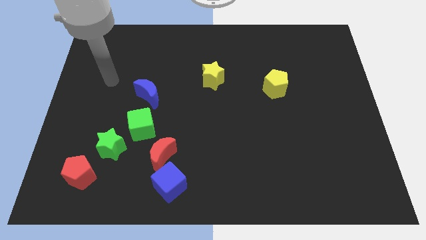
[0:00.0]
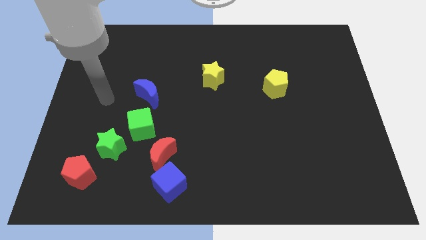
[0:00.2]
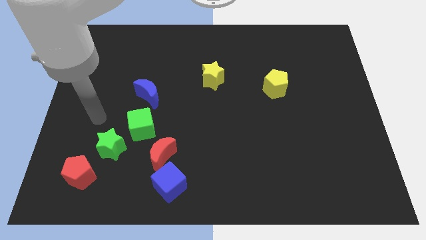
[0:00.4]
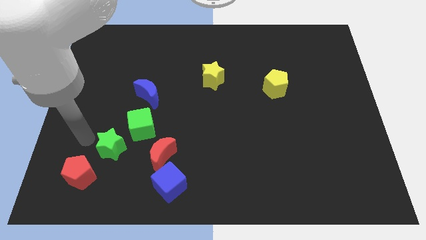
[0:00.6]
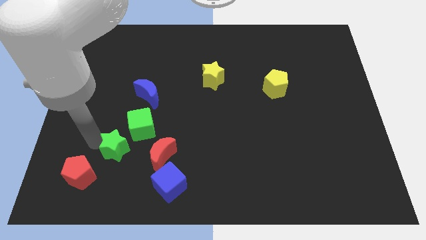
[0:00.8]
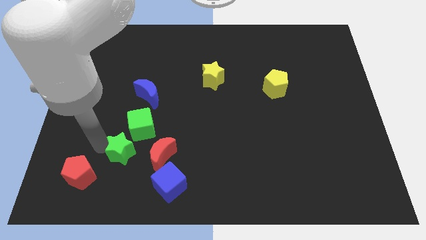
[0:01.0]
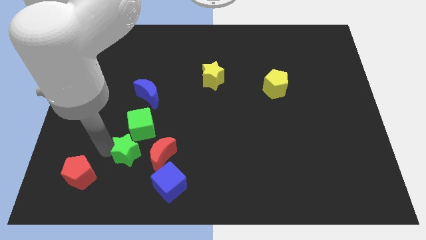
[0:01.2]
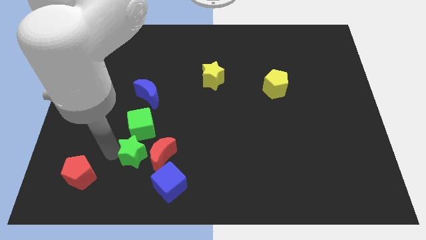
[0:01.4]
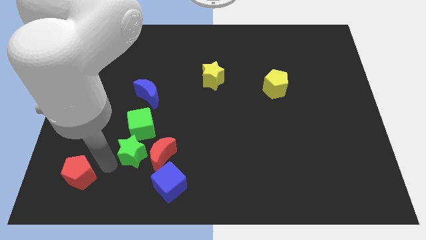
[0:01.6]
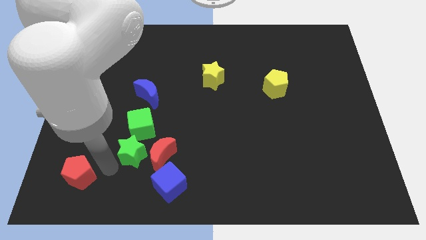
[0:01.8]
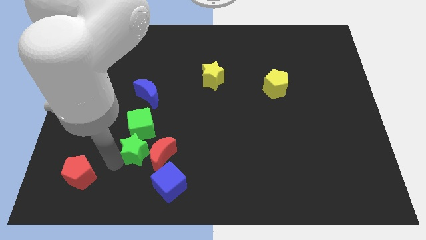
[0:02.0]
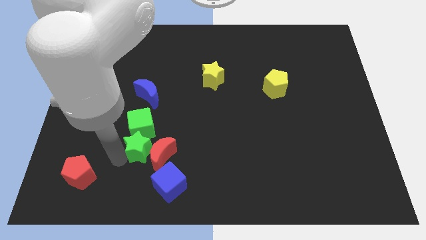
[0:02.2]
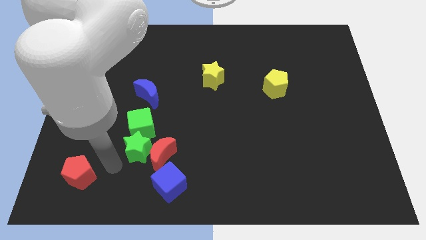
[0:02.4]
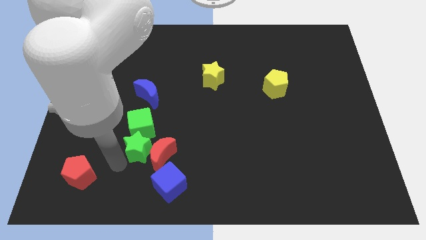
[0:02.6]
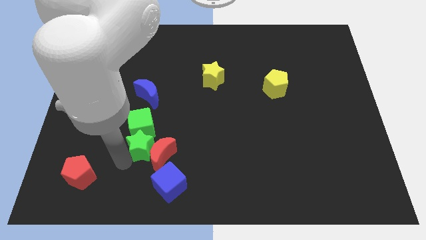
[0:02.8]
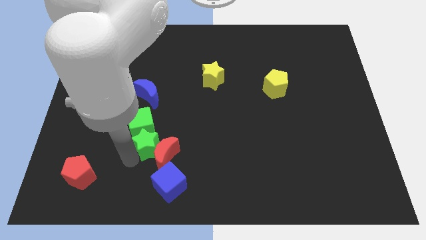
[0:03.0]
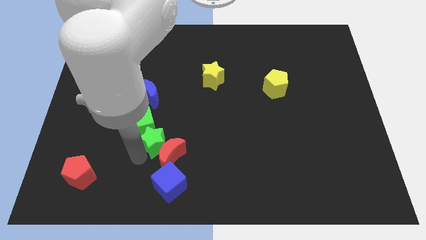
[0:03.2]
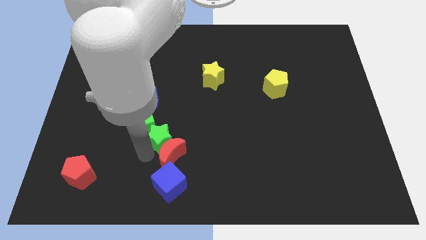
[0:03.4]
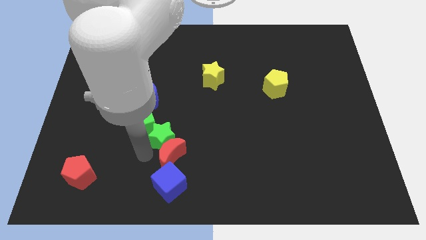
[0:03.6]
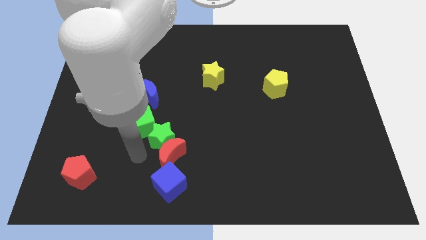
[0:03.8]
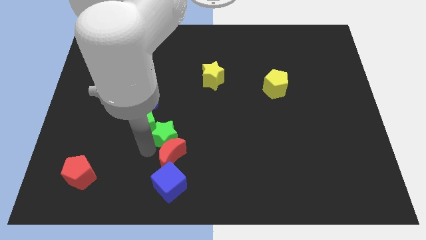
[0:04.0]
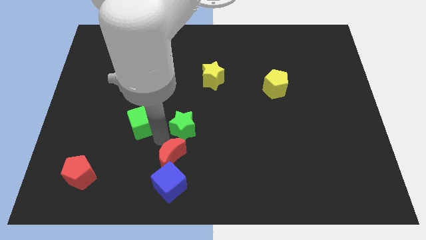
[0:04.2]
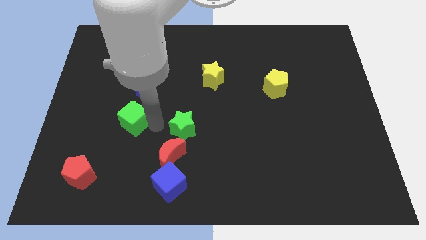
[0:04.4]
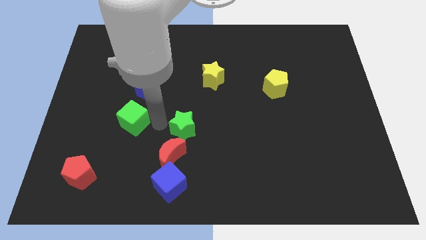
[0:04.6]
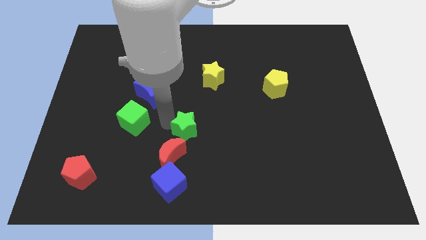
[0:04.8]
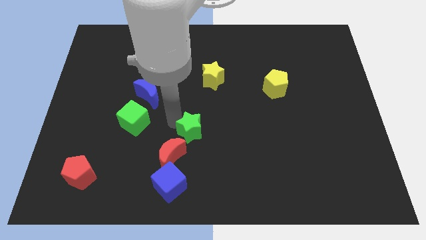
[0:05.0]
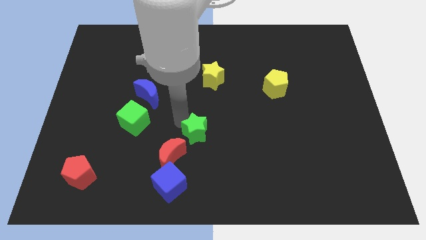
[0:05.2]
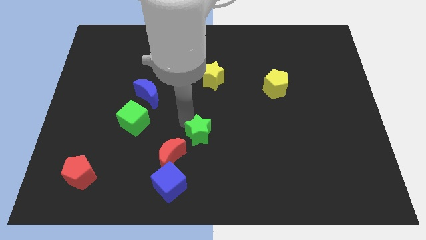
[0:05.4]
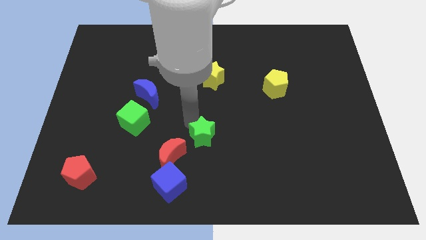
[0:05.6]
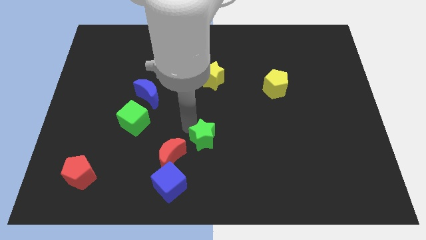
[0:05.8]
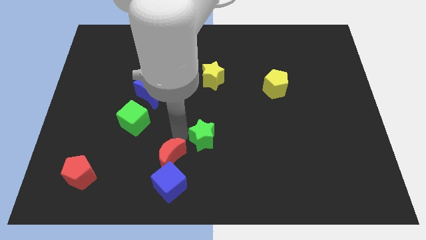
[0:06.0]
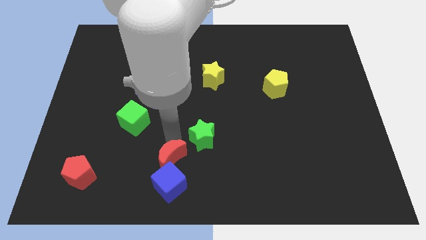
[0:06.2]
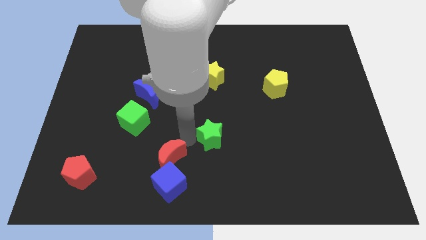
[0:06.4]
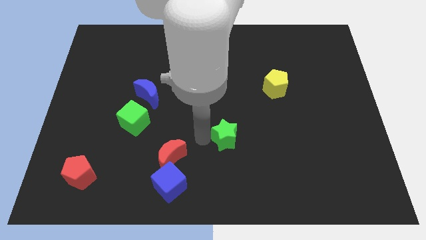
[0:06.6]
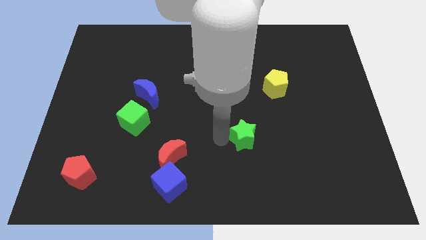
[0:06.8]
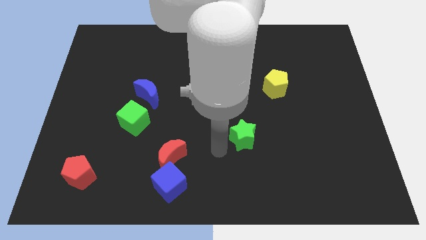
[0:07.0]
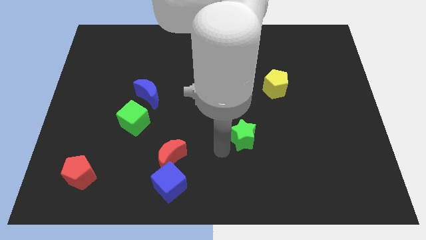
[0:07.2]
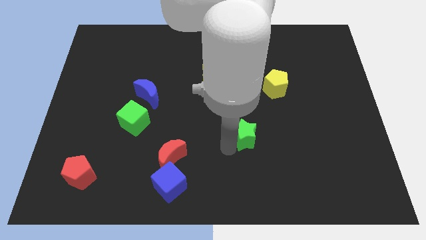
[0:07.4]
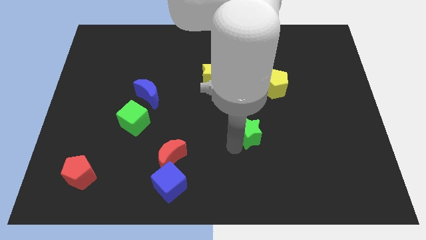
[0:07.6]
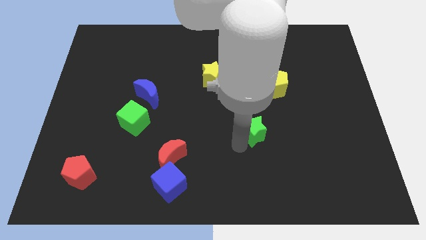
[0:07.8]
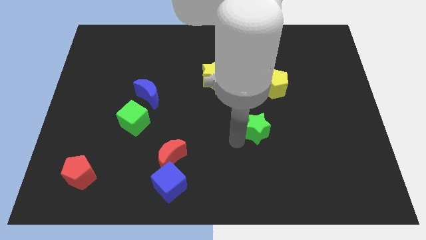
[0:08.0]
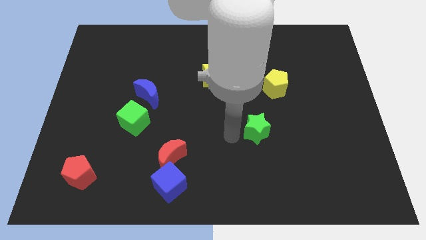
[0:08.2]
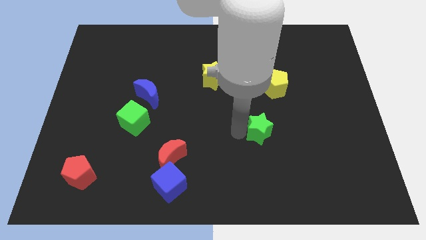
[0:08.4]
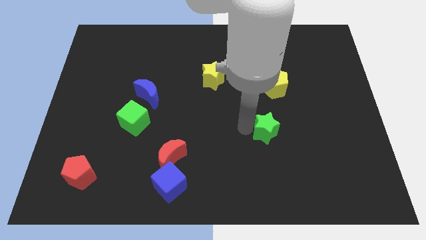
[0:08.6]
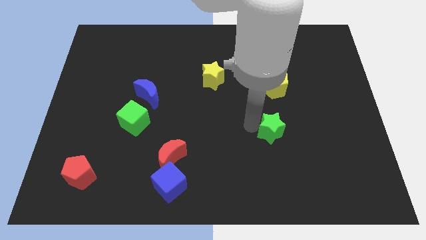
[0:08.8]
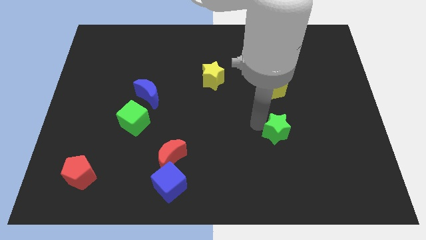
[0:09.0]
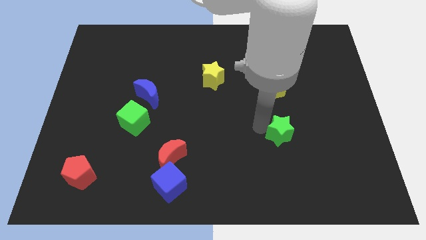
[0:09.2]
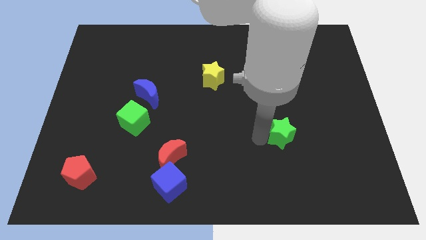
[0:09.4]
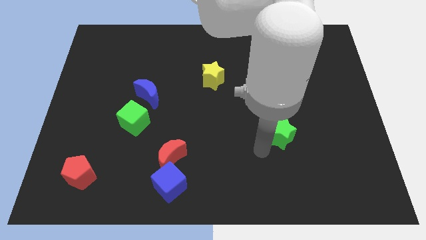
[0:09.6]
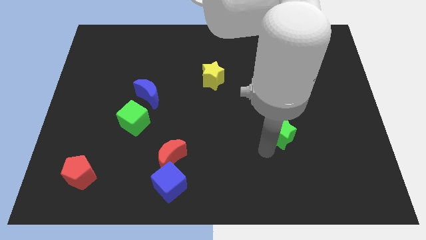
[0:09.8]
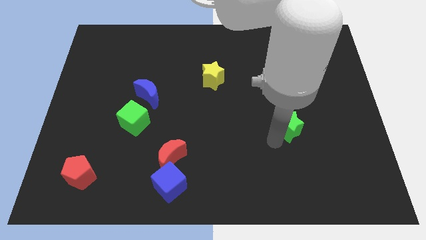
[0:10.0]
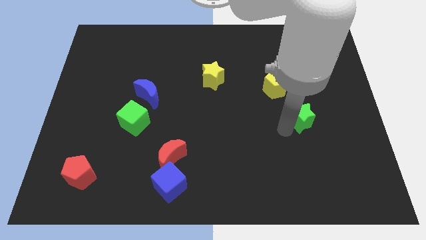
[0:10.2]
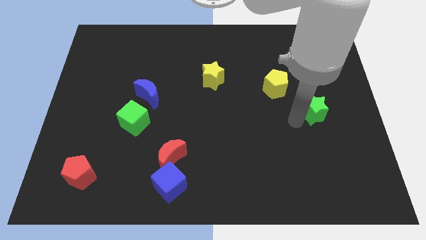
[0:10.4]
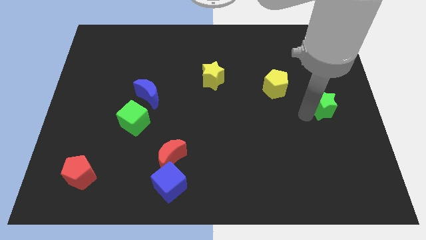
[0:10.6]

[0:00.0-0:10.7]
move the green star to the right side

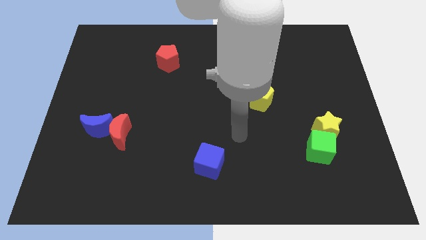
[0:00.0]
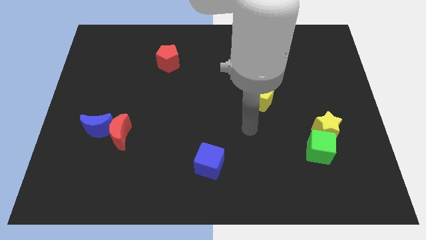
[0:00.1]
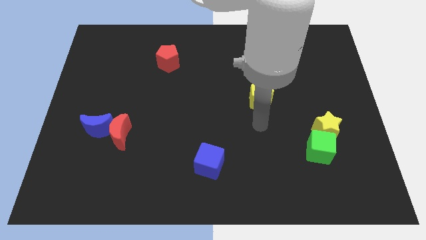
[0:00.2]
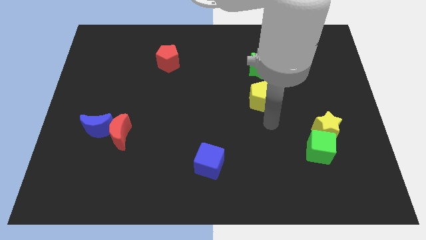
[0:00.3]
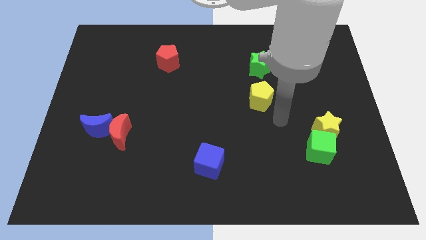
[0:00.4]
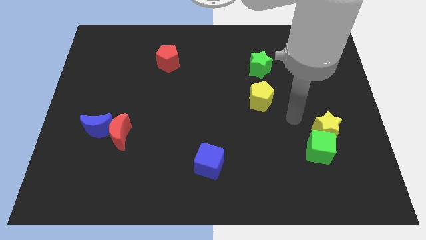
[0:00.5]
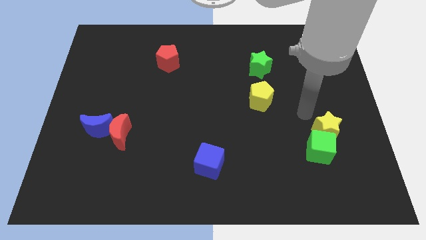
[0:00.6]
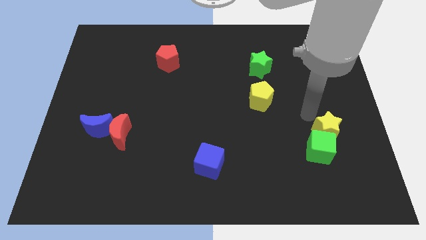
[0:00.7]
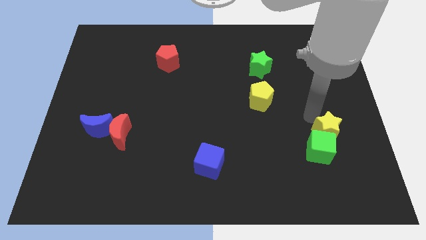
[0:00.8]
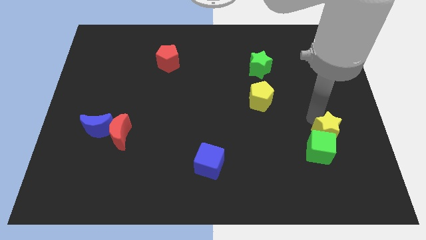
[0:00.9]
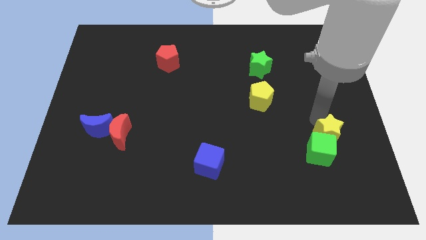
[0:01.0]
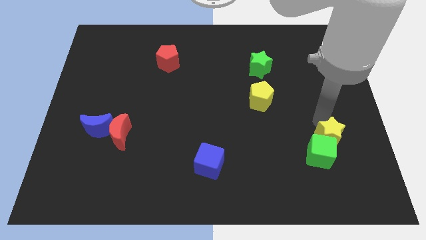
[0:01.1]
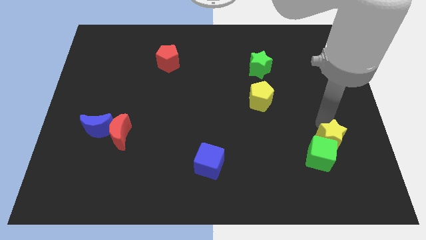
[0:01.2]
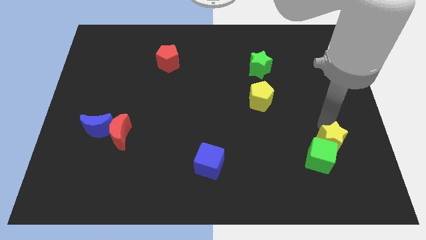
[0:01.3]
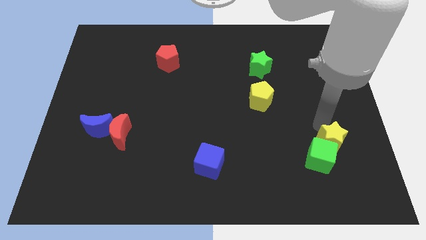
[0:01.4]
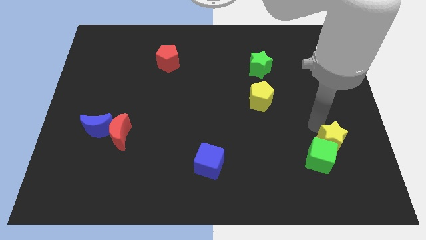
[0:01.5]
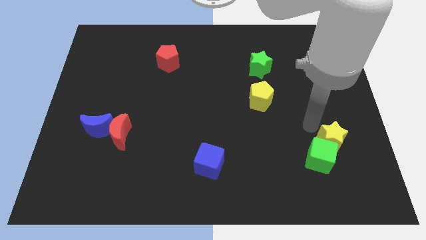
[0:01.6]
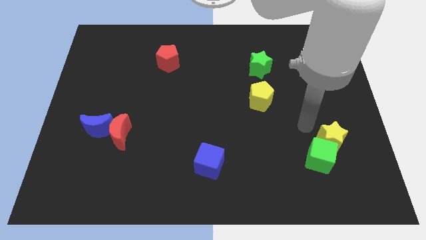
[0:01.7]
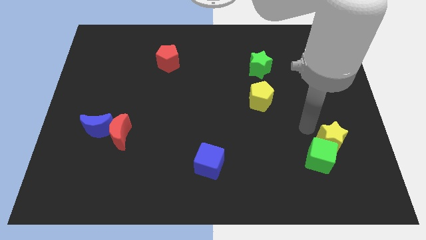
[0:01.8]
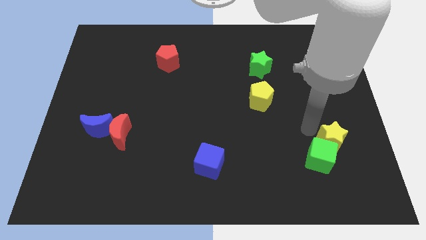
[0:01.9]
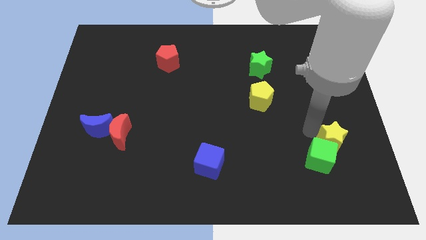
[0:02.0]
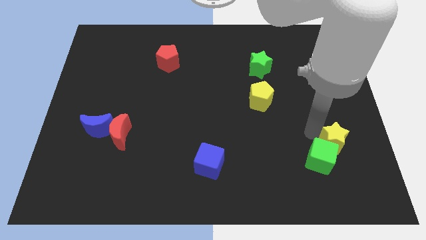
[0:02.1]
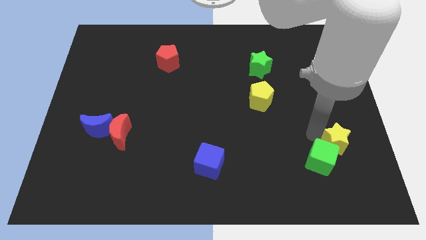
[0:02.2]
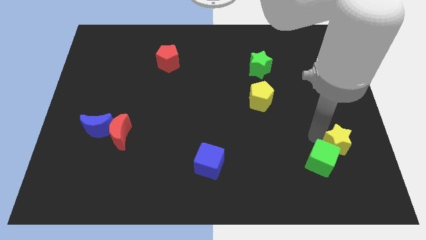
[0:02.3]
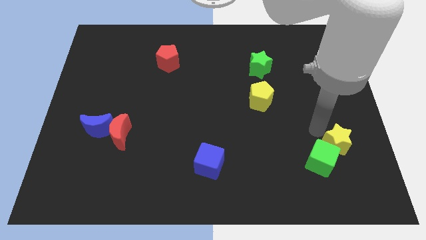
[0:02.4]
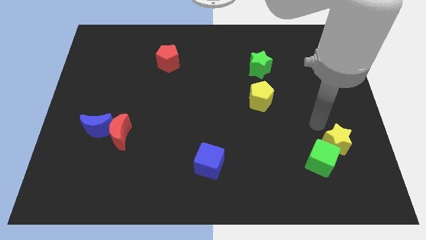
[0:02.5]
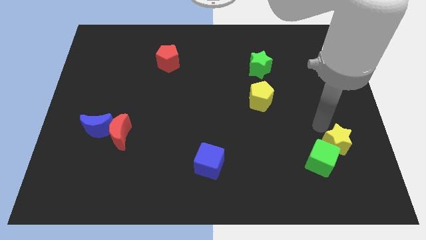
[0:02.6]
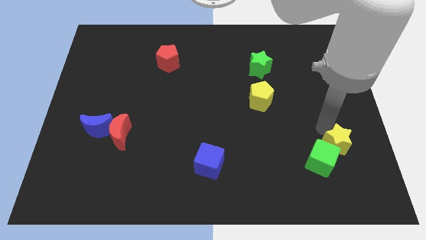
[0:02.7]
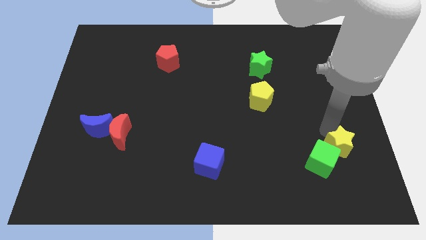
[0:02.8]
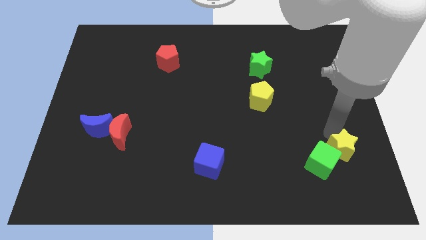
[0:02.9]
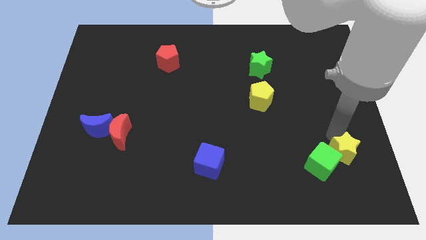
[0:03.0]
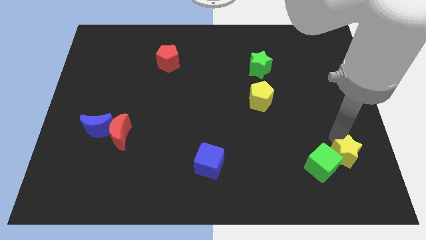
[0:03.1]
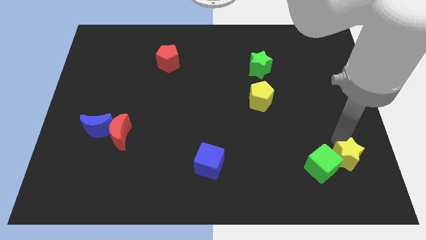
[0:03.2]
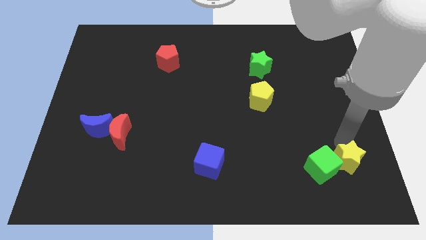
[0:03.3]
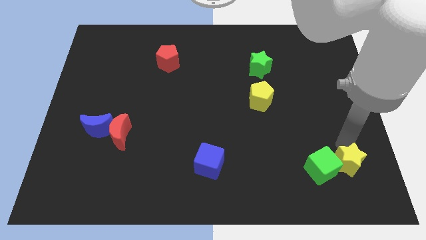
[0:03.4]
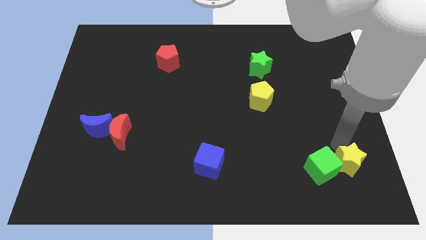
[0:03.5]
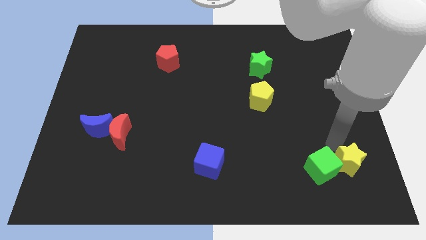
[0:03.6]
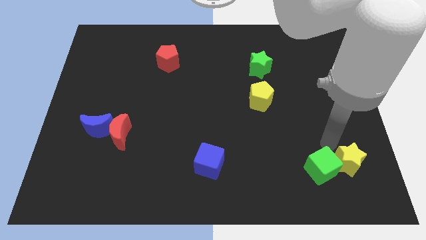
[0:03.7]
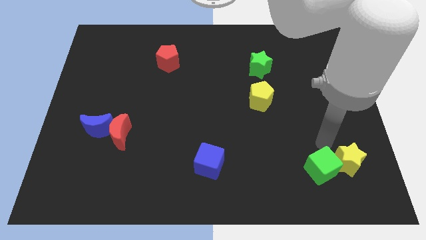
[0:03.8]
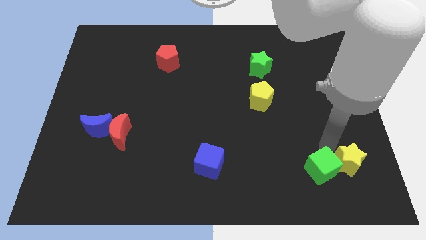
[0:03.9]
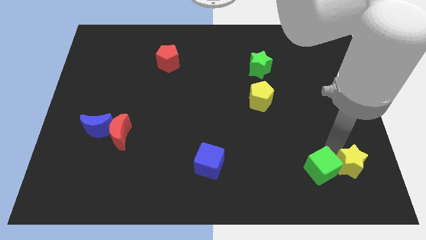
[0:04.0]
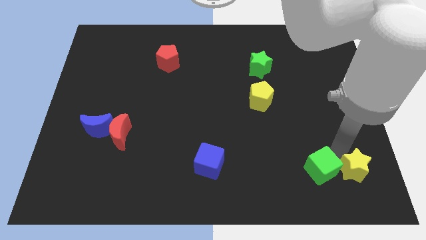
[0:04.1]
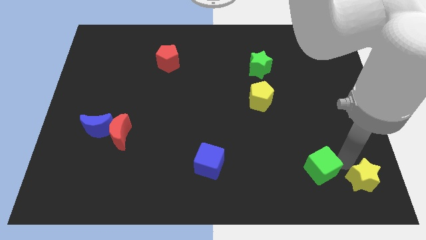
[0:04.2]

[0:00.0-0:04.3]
slide the yellow star to the lower right corner
